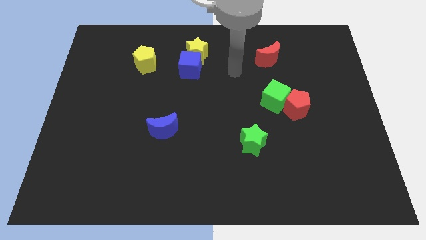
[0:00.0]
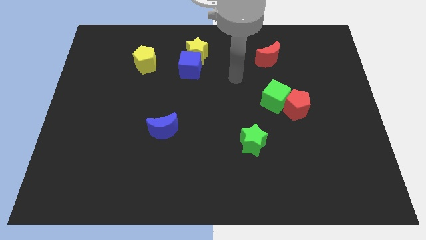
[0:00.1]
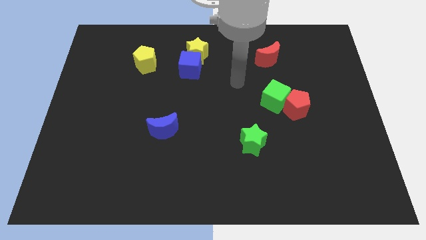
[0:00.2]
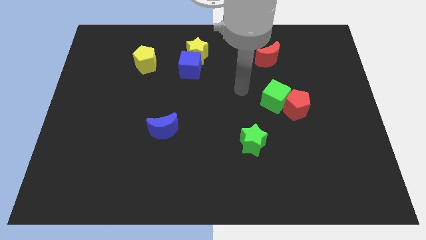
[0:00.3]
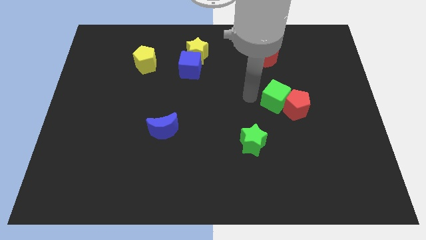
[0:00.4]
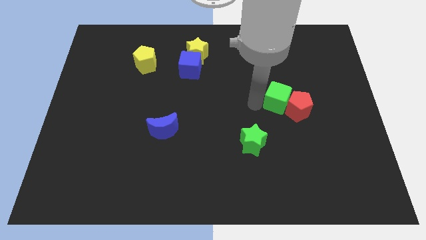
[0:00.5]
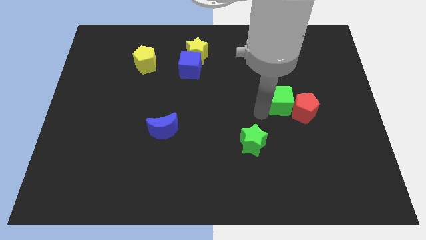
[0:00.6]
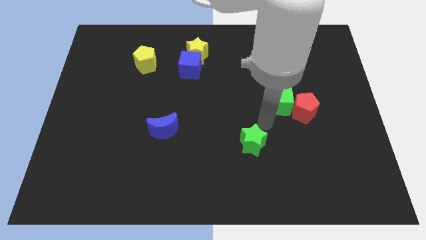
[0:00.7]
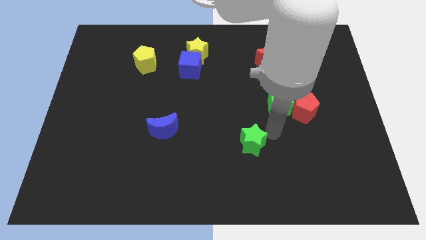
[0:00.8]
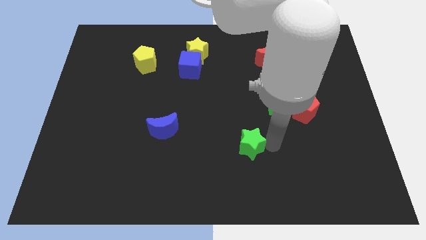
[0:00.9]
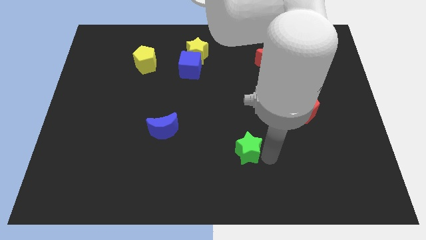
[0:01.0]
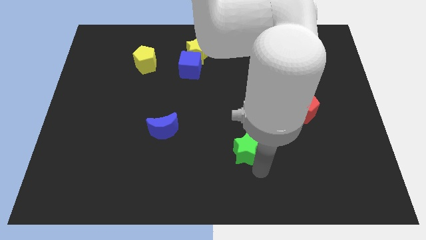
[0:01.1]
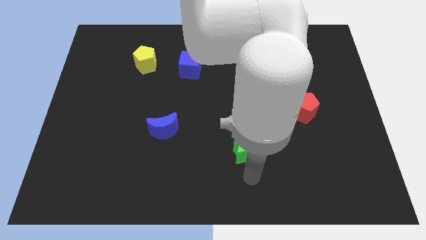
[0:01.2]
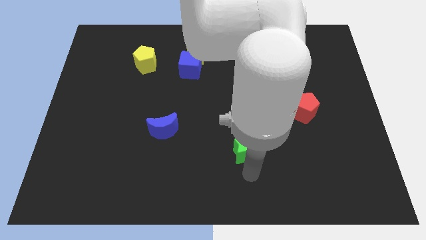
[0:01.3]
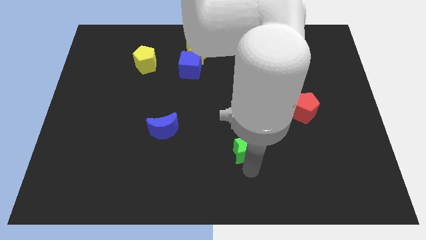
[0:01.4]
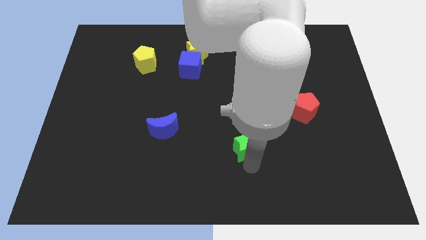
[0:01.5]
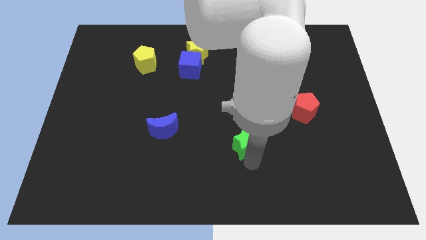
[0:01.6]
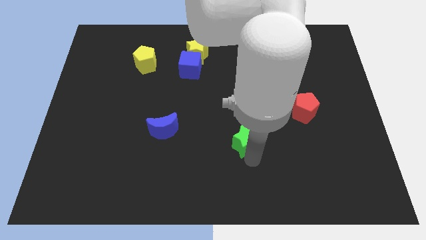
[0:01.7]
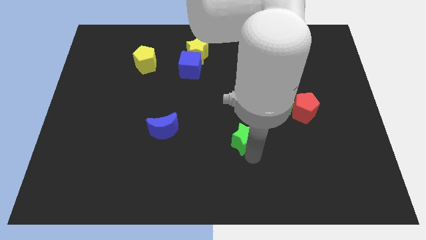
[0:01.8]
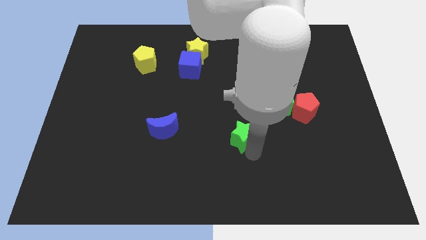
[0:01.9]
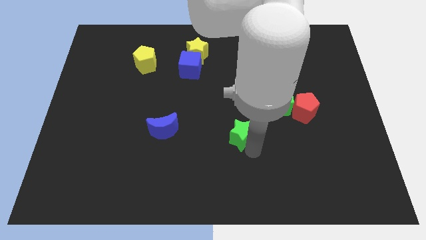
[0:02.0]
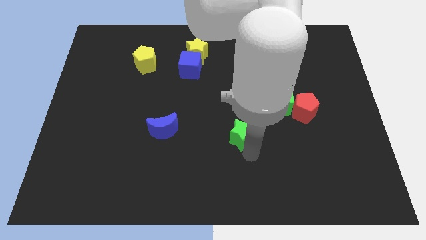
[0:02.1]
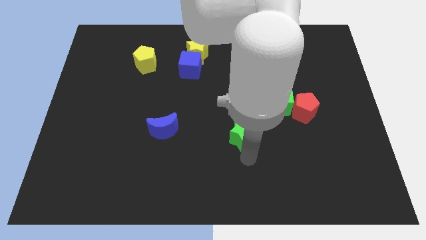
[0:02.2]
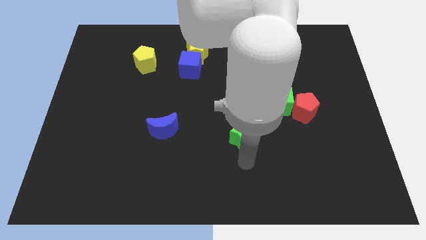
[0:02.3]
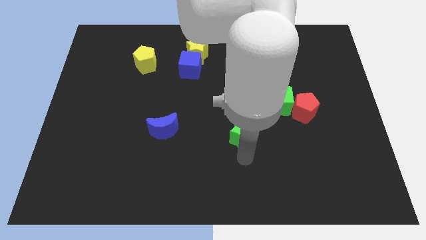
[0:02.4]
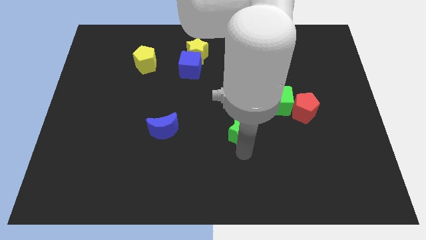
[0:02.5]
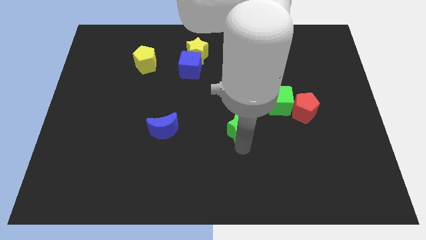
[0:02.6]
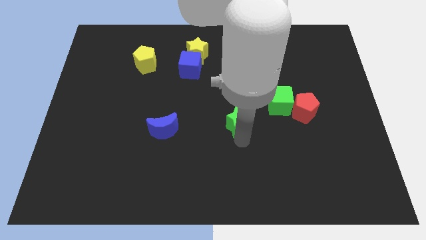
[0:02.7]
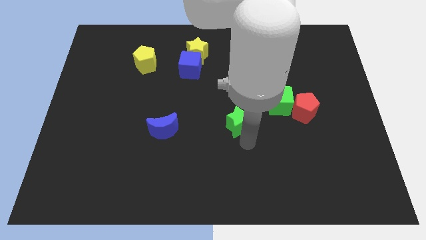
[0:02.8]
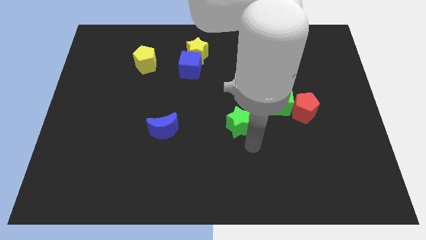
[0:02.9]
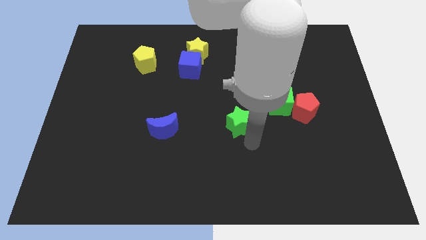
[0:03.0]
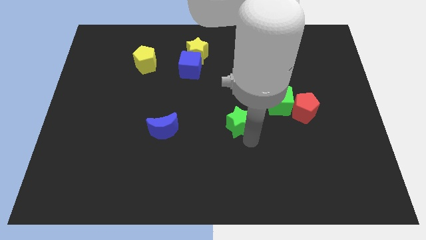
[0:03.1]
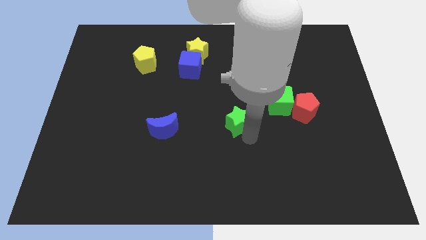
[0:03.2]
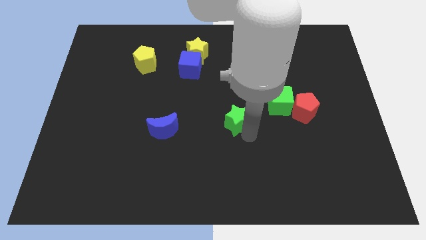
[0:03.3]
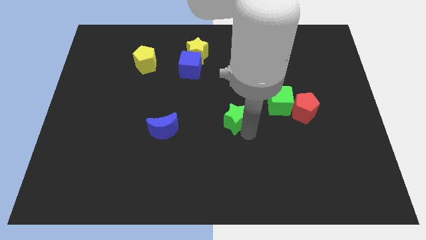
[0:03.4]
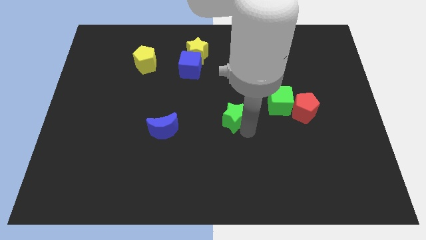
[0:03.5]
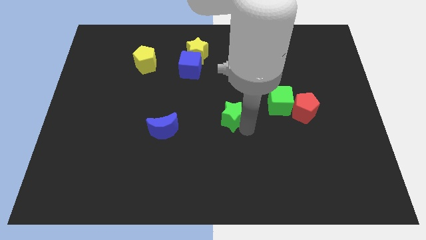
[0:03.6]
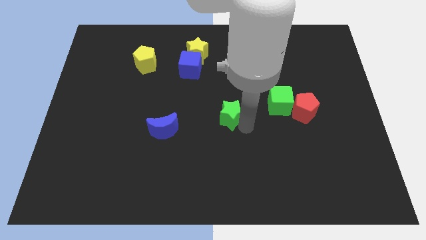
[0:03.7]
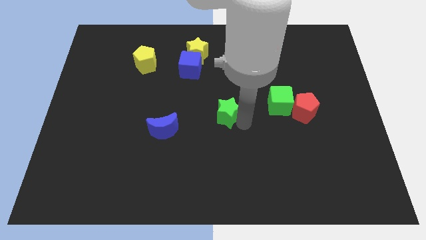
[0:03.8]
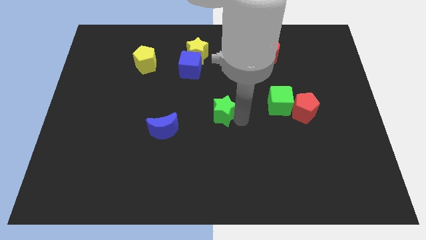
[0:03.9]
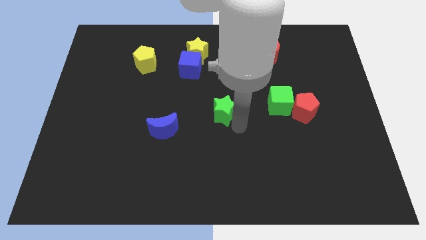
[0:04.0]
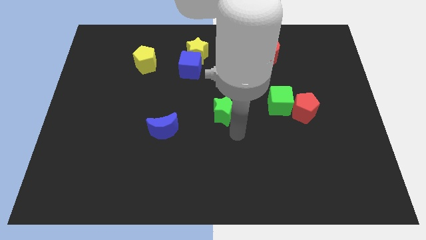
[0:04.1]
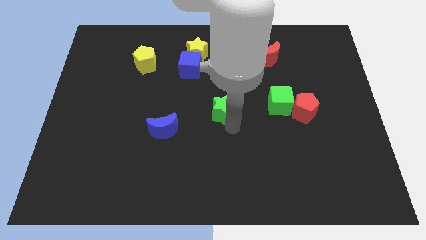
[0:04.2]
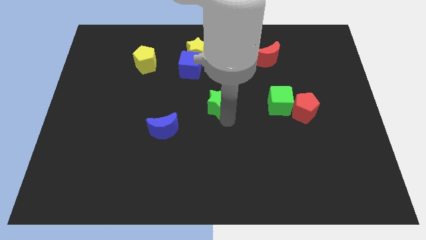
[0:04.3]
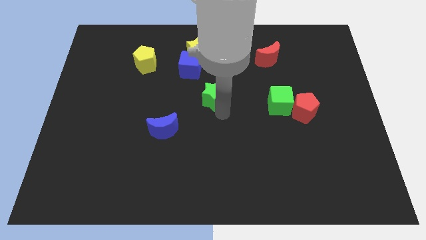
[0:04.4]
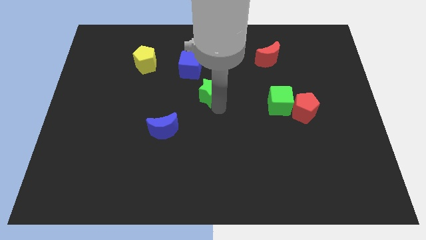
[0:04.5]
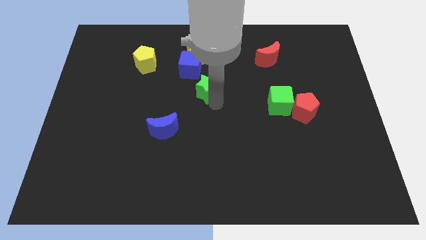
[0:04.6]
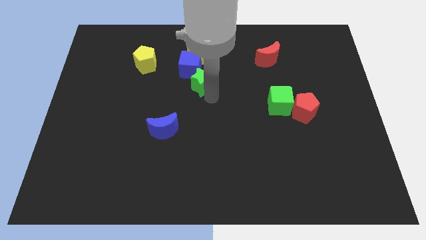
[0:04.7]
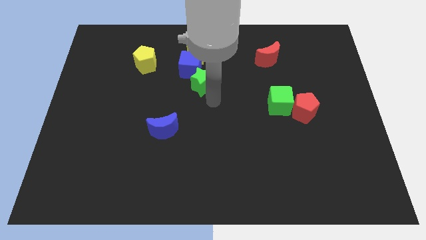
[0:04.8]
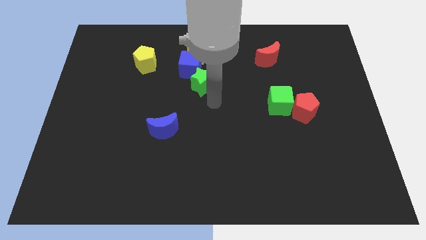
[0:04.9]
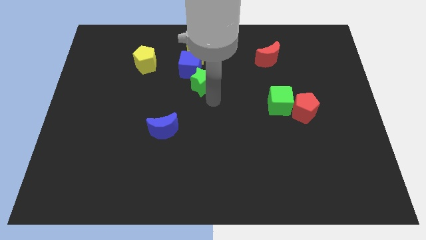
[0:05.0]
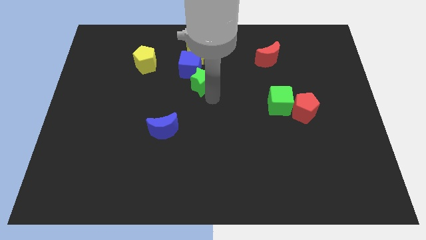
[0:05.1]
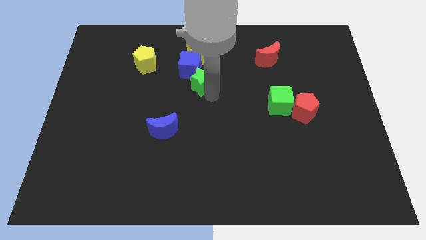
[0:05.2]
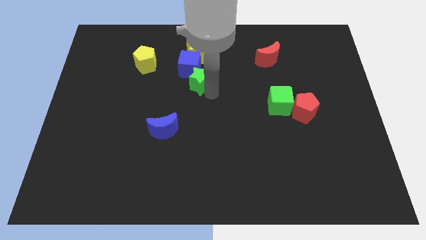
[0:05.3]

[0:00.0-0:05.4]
slide the green star towards the blue cube

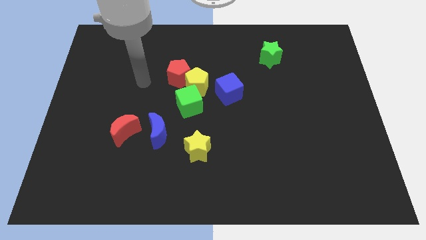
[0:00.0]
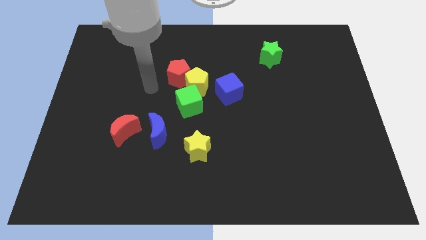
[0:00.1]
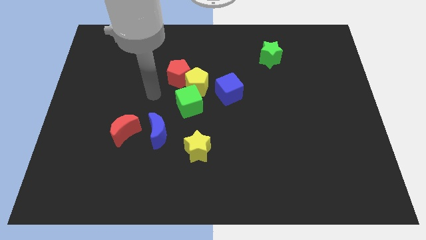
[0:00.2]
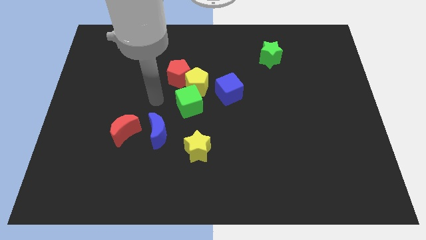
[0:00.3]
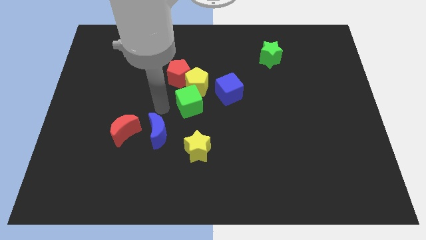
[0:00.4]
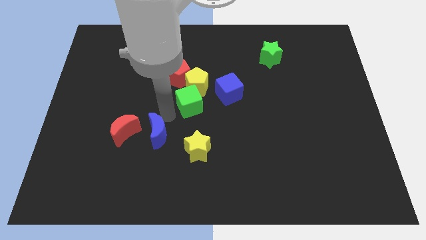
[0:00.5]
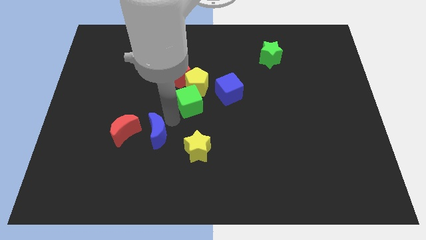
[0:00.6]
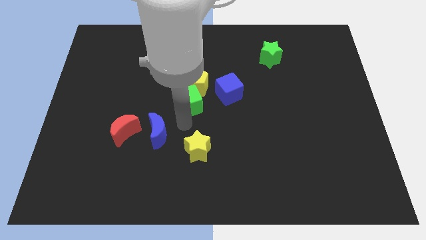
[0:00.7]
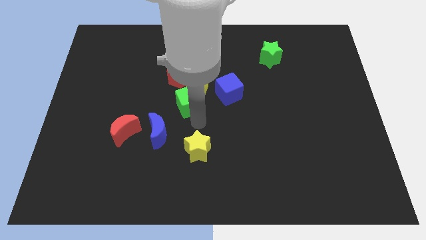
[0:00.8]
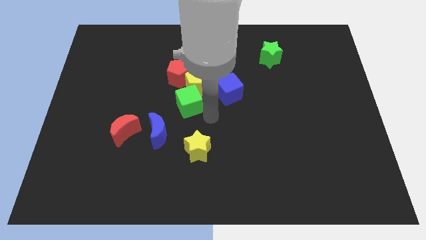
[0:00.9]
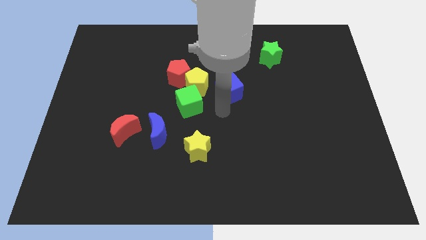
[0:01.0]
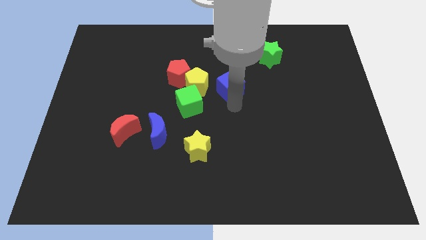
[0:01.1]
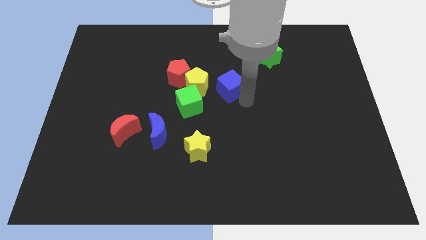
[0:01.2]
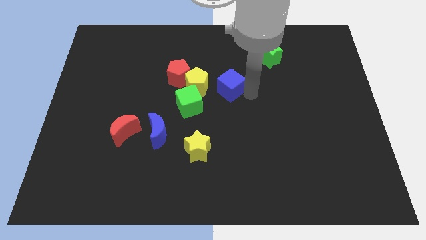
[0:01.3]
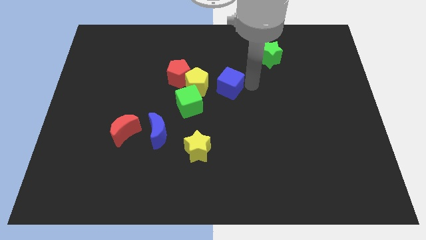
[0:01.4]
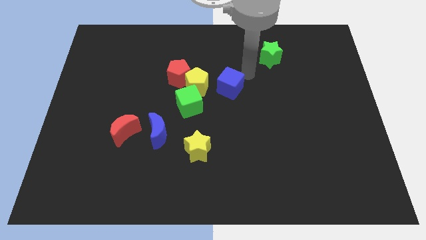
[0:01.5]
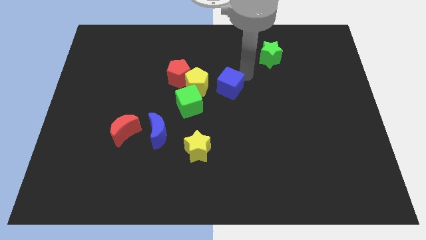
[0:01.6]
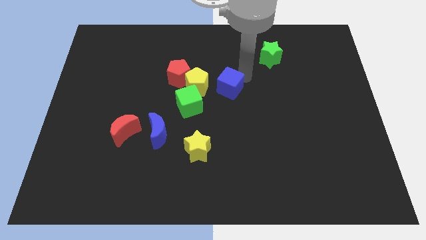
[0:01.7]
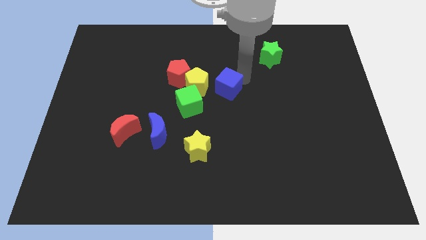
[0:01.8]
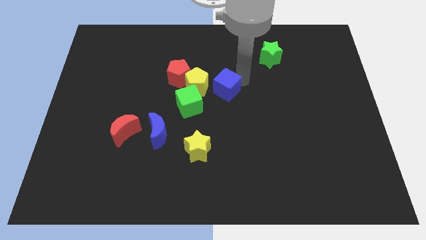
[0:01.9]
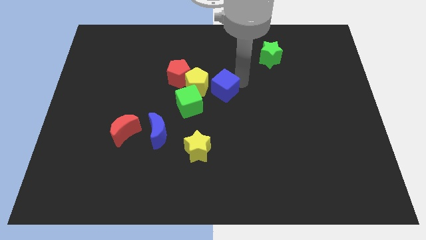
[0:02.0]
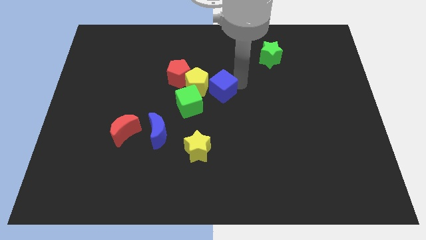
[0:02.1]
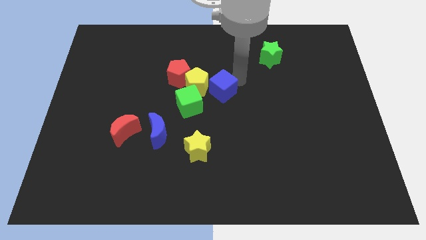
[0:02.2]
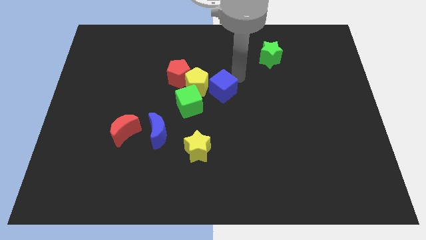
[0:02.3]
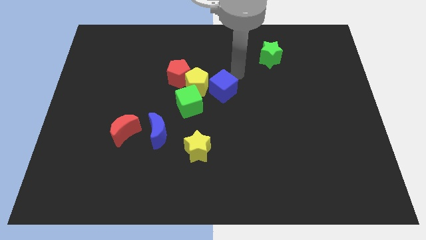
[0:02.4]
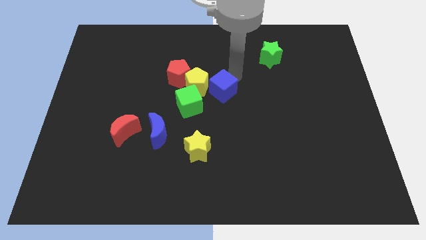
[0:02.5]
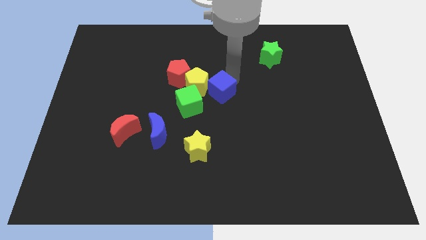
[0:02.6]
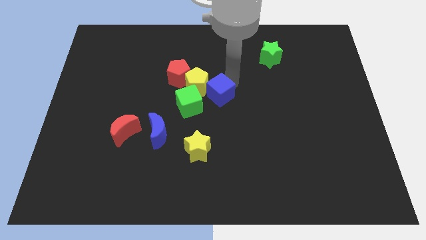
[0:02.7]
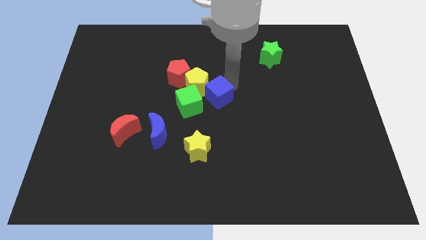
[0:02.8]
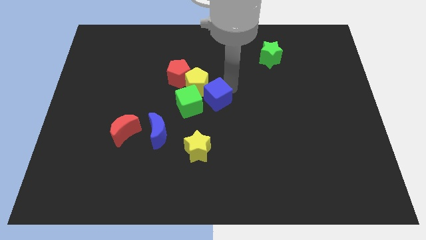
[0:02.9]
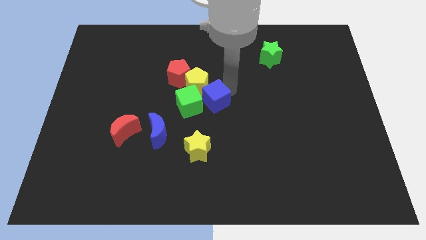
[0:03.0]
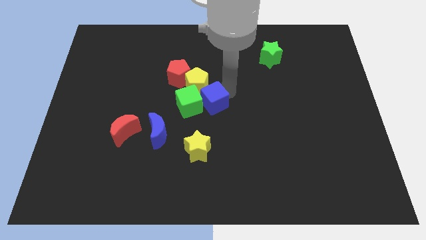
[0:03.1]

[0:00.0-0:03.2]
push the blue cube close to the green cube
